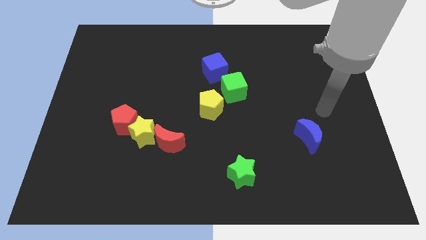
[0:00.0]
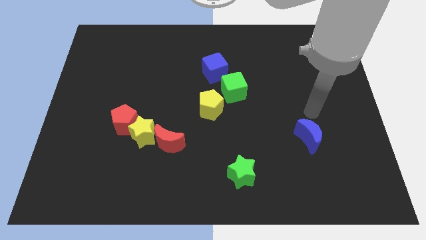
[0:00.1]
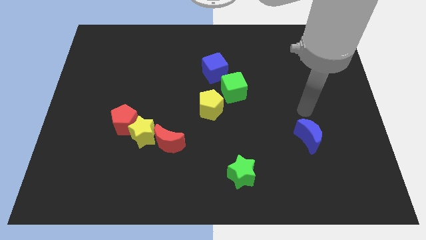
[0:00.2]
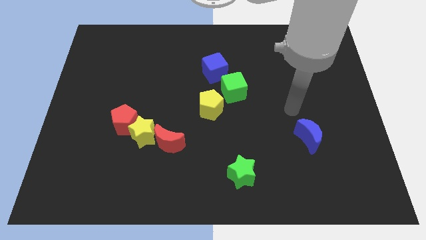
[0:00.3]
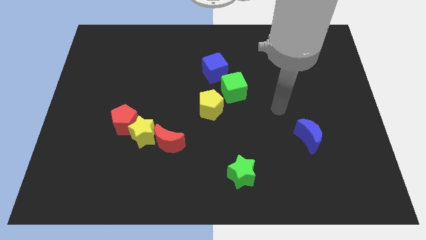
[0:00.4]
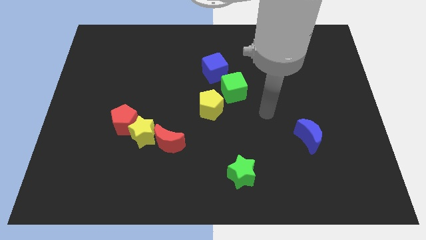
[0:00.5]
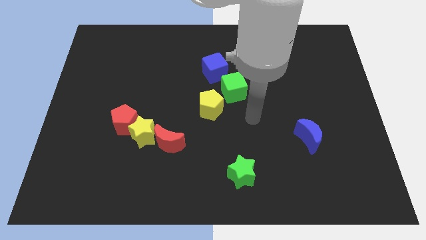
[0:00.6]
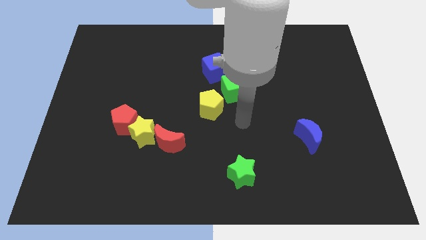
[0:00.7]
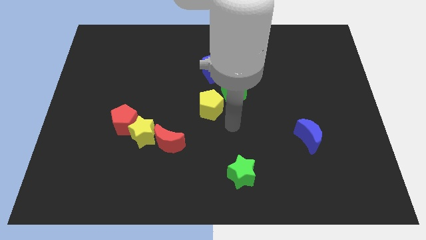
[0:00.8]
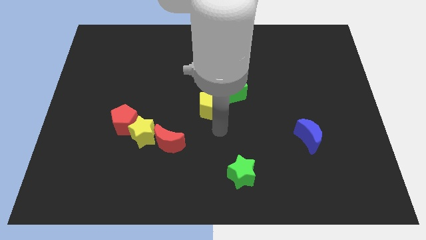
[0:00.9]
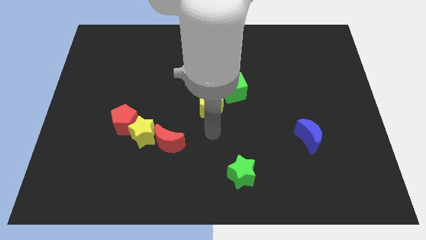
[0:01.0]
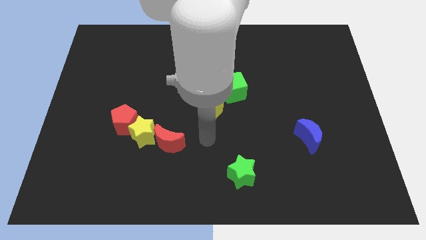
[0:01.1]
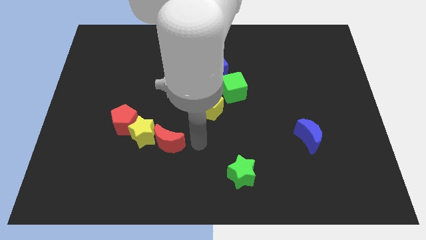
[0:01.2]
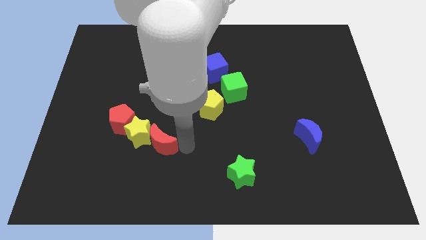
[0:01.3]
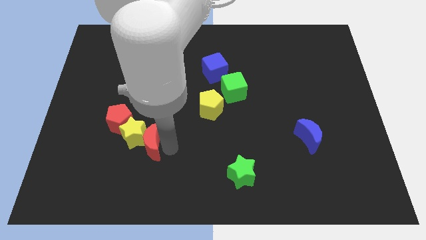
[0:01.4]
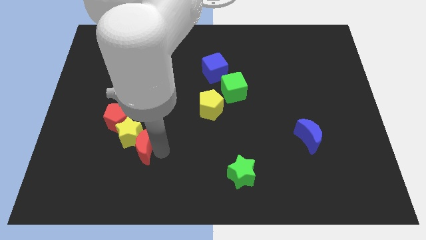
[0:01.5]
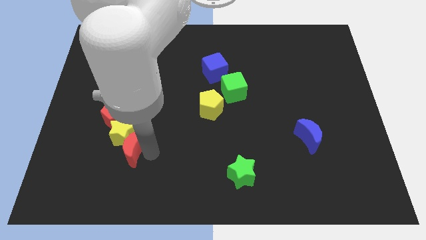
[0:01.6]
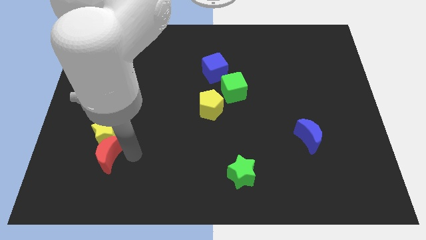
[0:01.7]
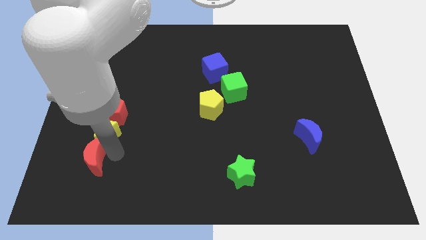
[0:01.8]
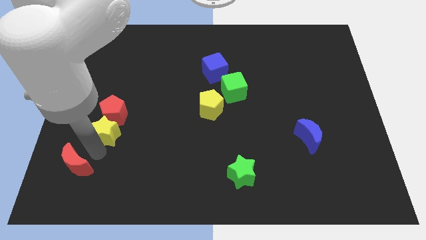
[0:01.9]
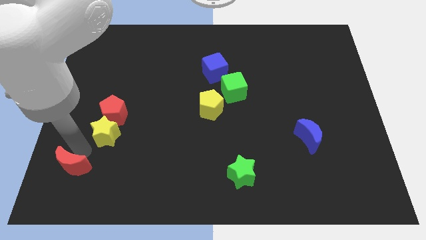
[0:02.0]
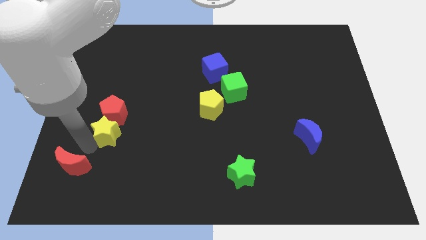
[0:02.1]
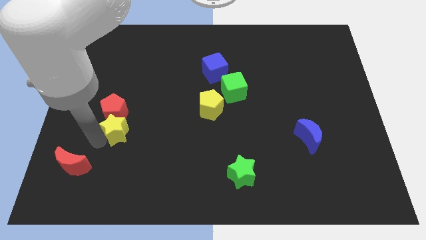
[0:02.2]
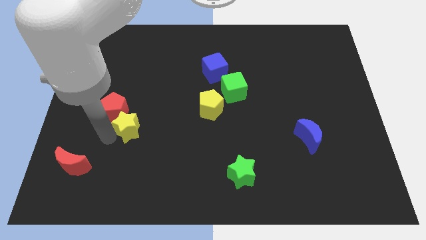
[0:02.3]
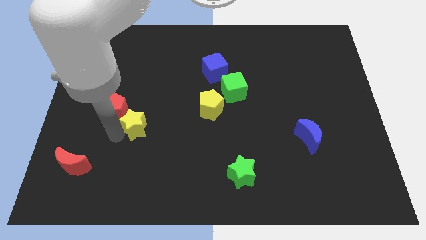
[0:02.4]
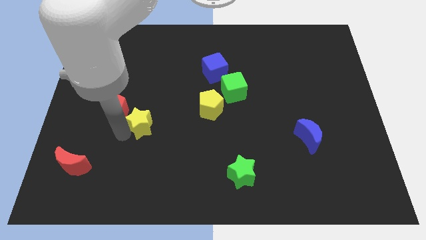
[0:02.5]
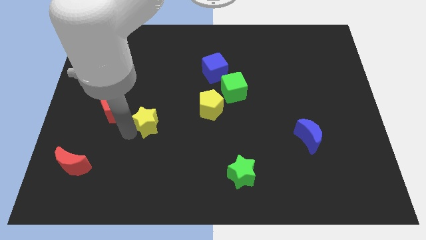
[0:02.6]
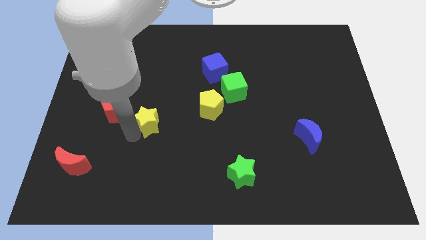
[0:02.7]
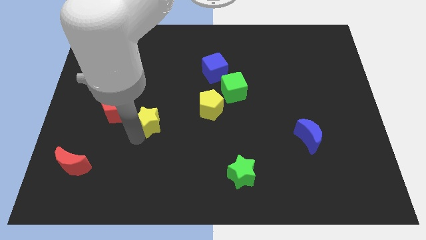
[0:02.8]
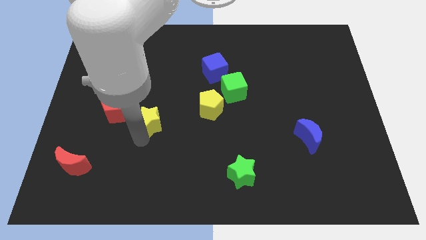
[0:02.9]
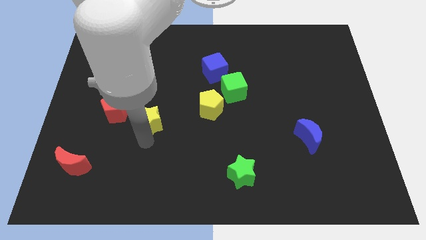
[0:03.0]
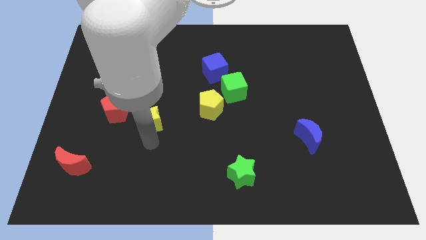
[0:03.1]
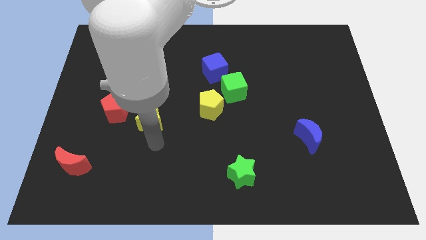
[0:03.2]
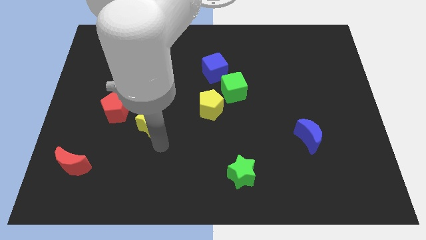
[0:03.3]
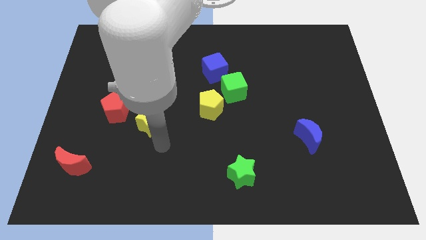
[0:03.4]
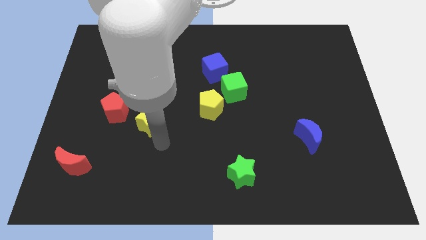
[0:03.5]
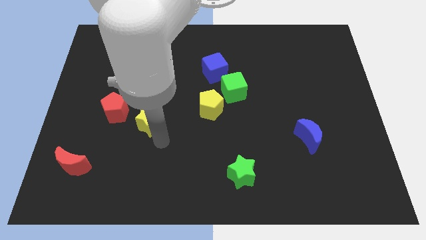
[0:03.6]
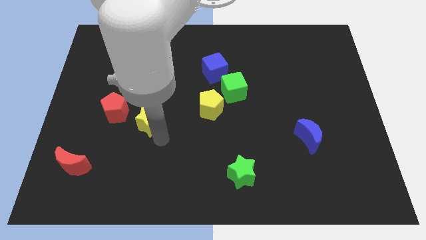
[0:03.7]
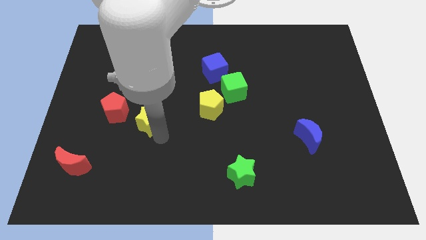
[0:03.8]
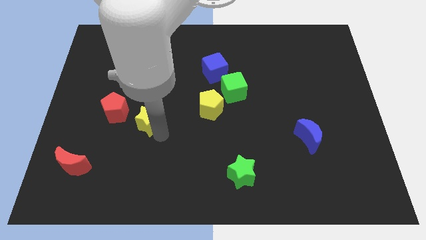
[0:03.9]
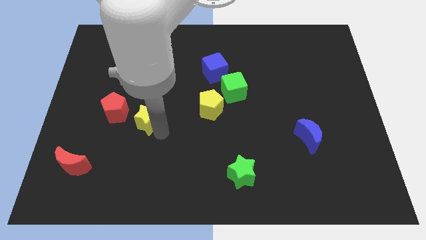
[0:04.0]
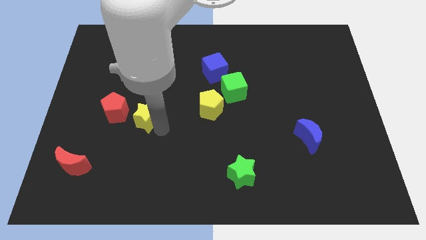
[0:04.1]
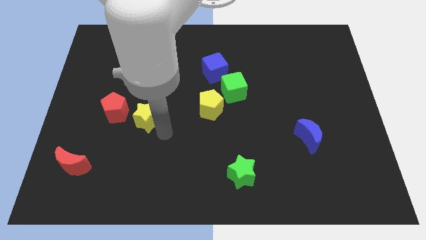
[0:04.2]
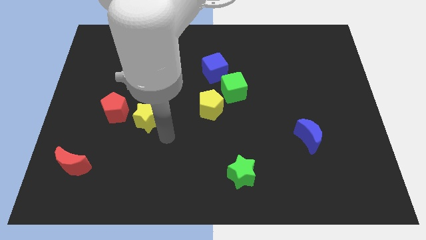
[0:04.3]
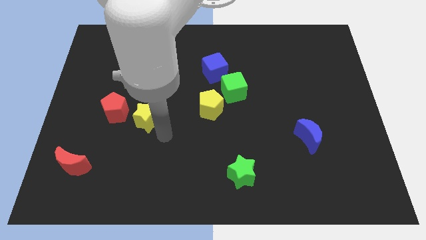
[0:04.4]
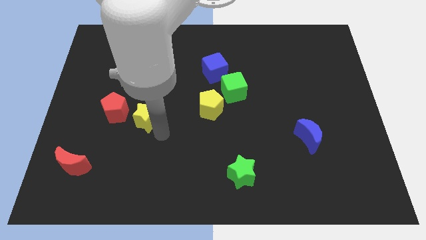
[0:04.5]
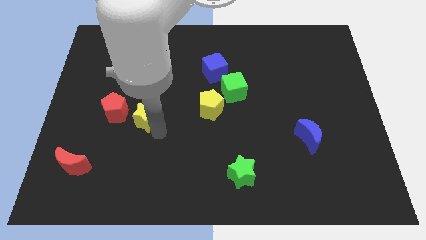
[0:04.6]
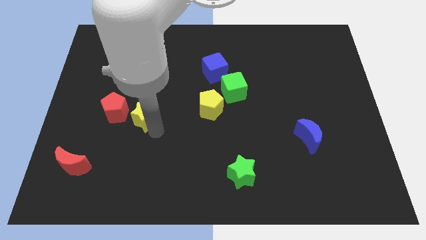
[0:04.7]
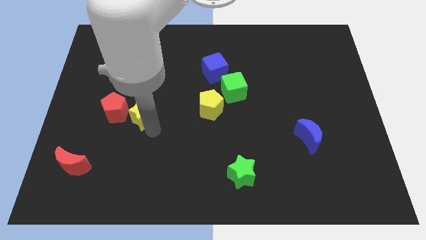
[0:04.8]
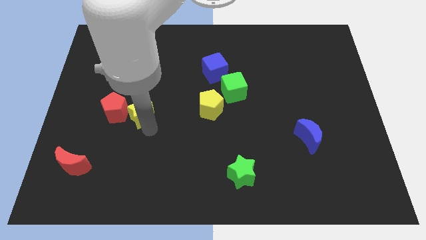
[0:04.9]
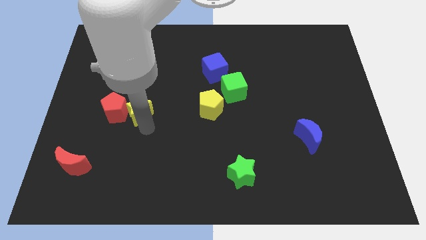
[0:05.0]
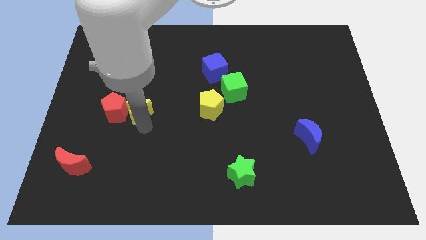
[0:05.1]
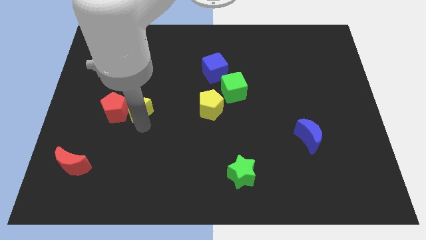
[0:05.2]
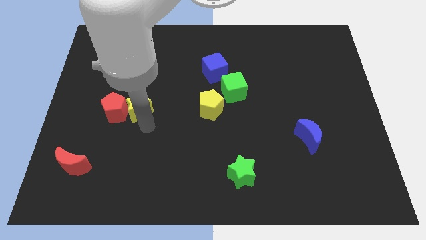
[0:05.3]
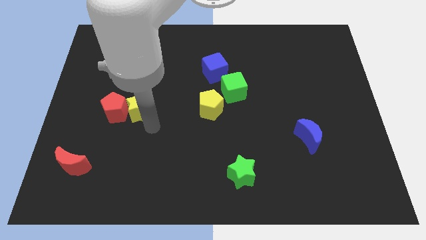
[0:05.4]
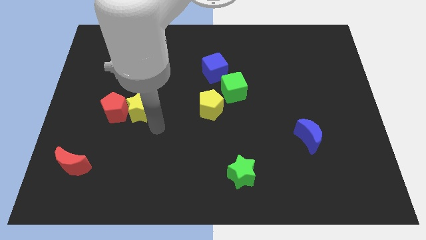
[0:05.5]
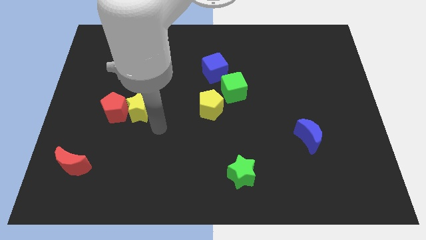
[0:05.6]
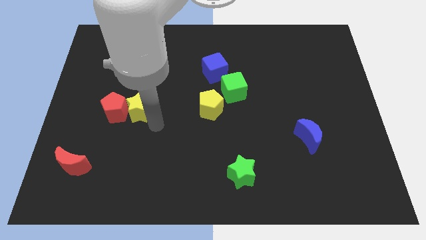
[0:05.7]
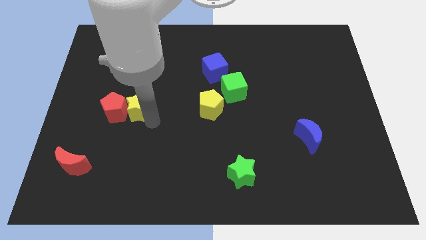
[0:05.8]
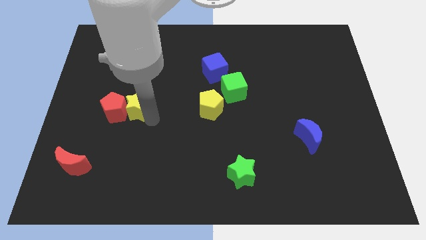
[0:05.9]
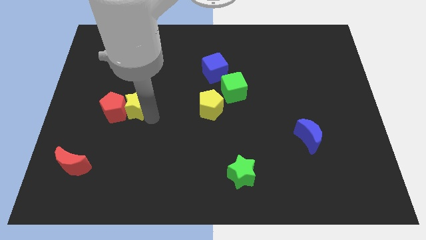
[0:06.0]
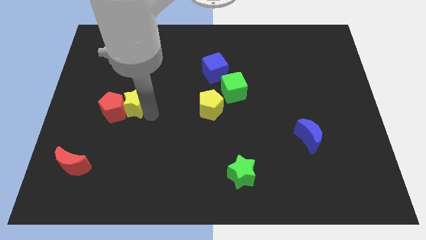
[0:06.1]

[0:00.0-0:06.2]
slightly move the yellow star upwards and to the left diagonally

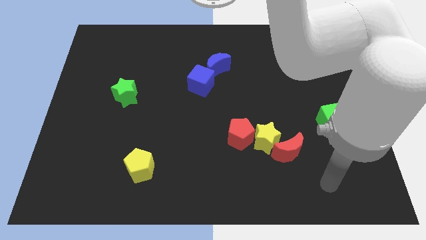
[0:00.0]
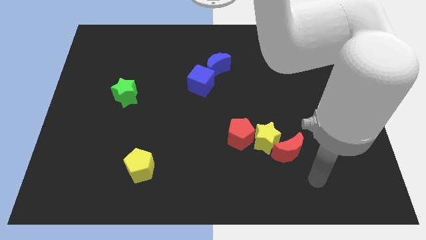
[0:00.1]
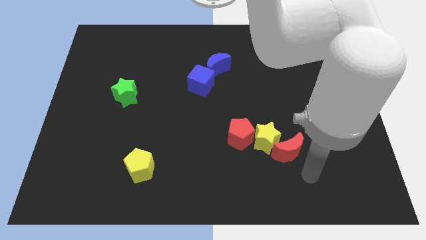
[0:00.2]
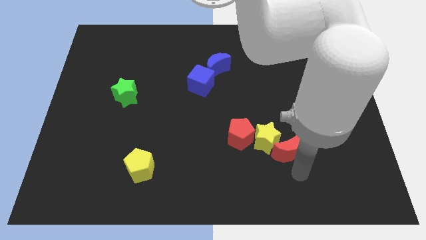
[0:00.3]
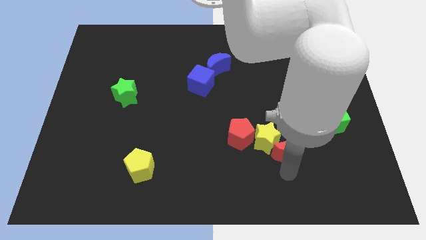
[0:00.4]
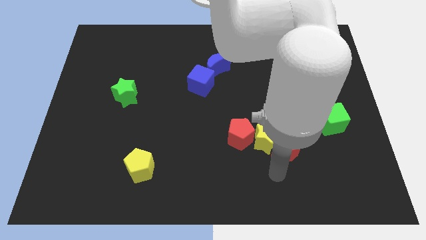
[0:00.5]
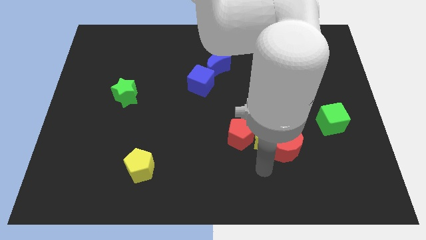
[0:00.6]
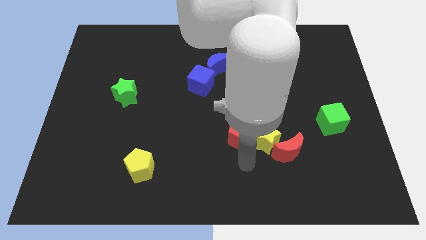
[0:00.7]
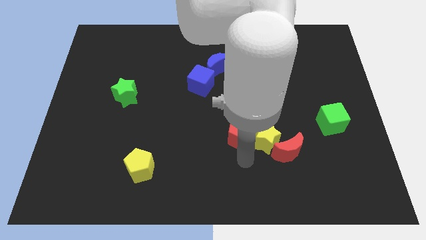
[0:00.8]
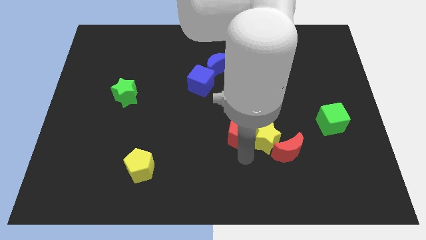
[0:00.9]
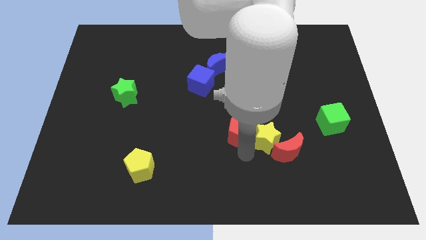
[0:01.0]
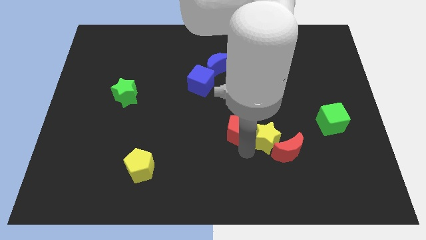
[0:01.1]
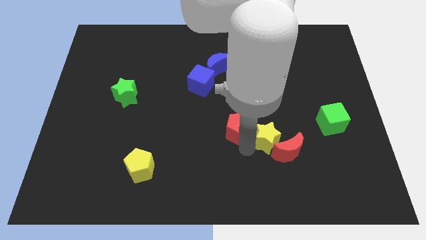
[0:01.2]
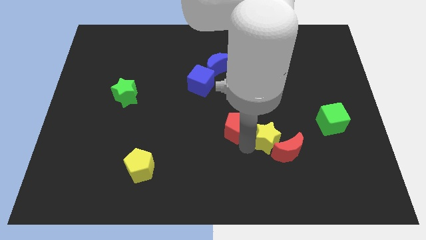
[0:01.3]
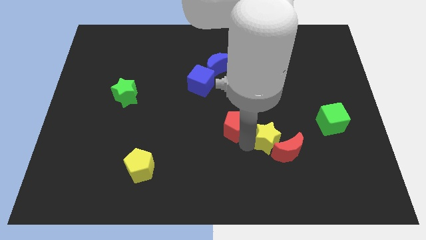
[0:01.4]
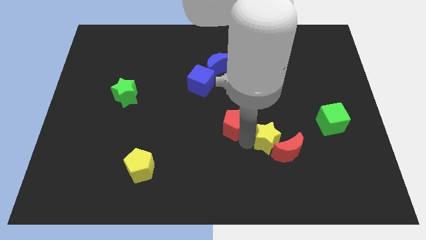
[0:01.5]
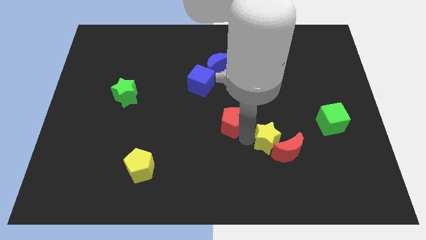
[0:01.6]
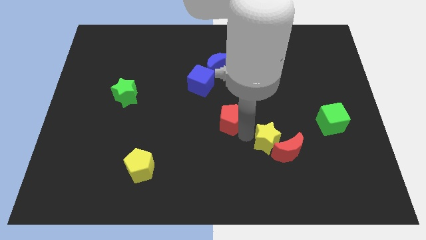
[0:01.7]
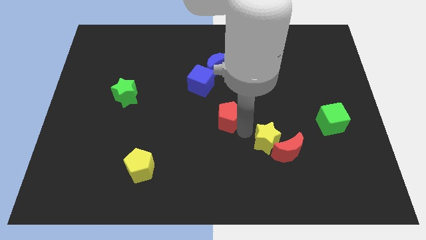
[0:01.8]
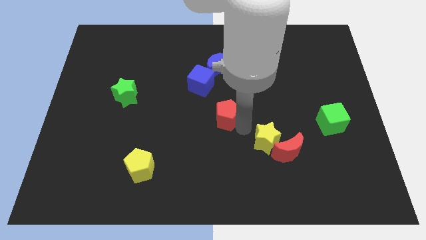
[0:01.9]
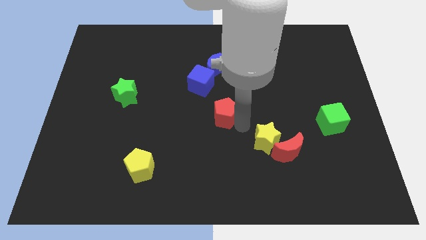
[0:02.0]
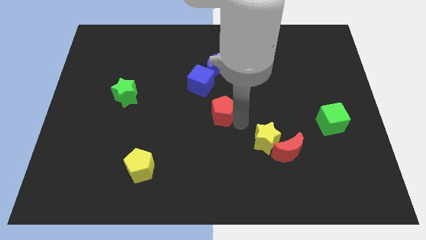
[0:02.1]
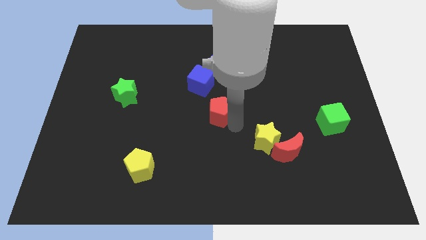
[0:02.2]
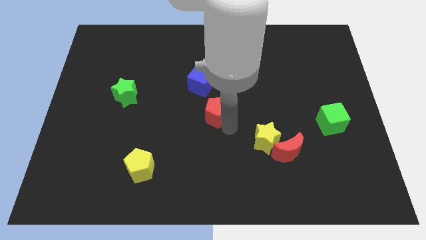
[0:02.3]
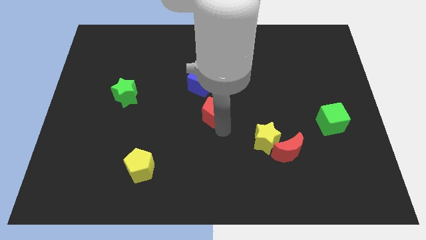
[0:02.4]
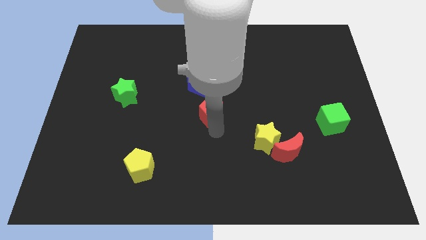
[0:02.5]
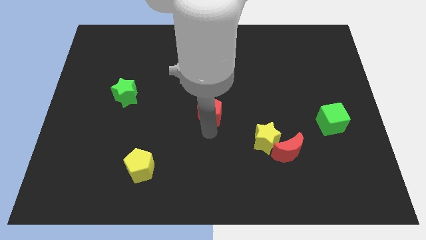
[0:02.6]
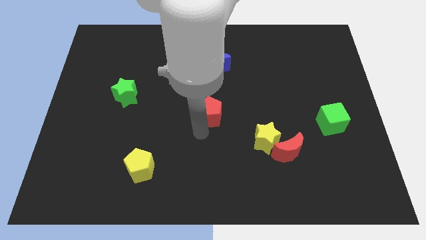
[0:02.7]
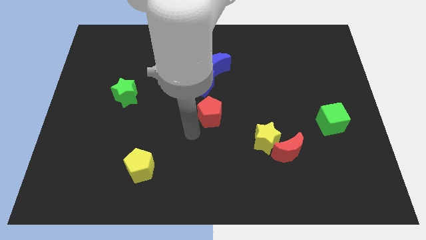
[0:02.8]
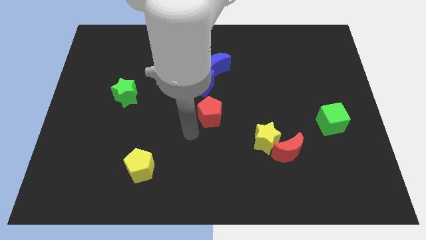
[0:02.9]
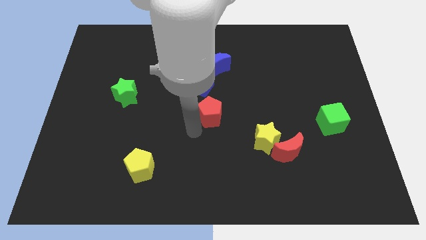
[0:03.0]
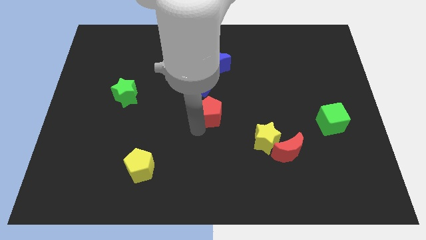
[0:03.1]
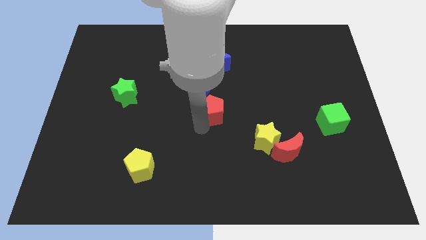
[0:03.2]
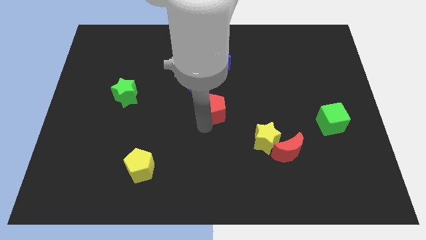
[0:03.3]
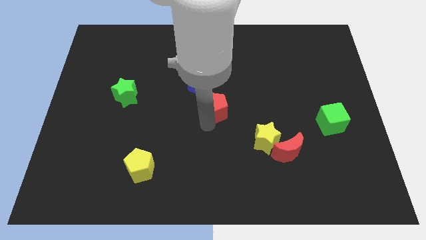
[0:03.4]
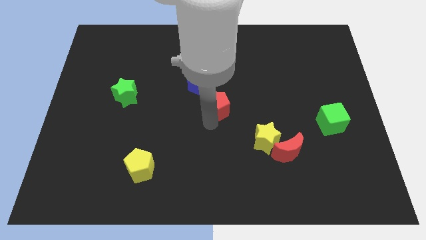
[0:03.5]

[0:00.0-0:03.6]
move the red pentagon upwards slightly
